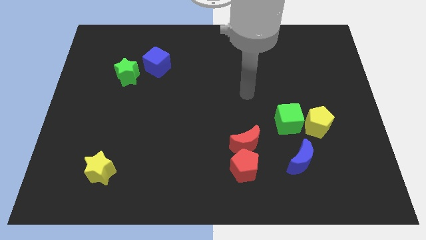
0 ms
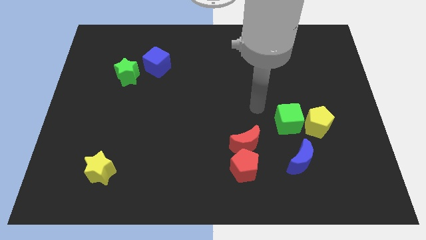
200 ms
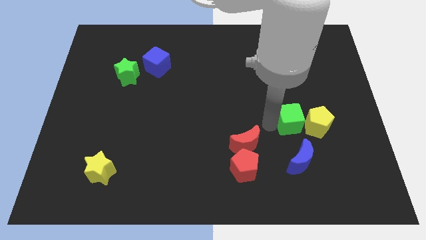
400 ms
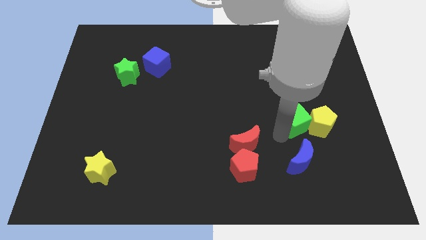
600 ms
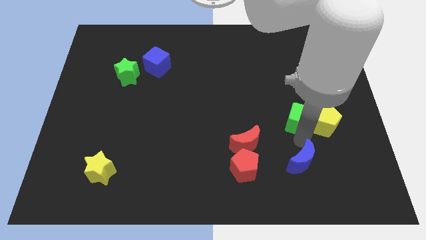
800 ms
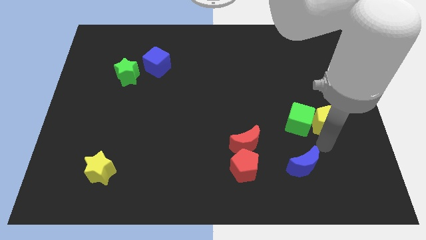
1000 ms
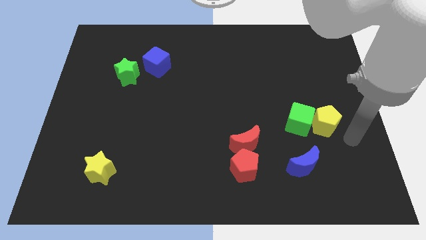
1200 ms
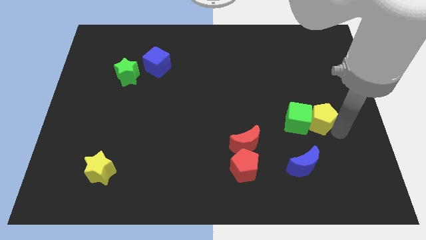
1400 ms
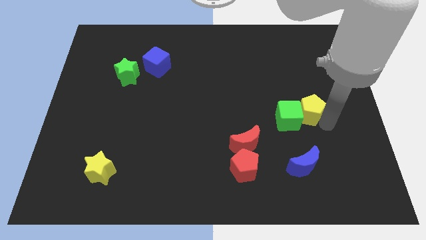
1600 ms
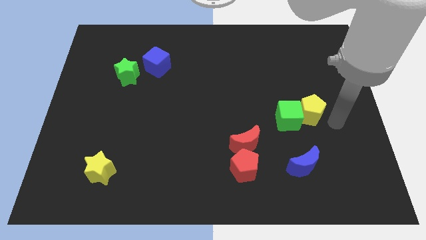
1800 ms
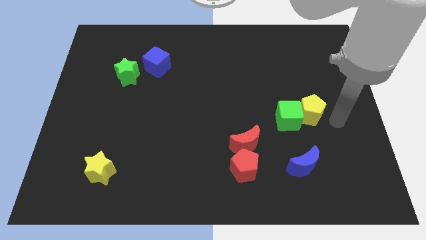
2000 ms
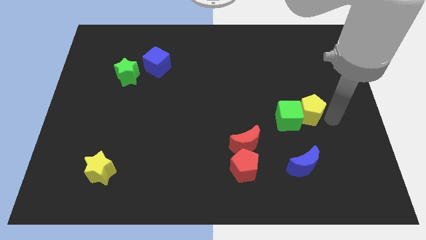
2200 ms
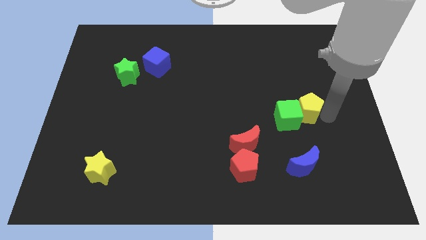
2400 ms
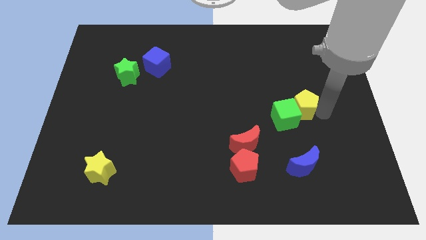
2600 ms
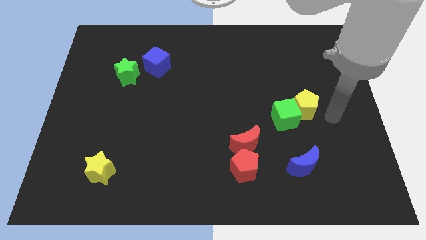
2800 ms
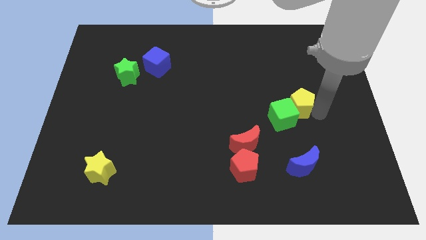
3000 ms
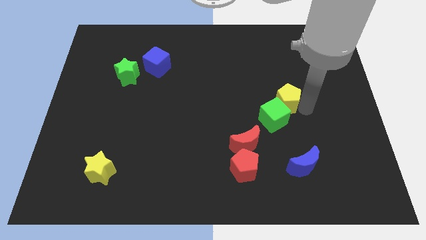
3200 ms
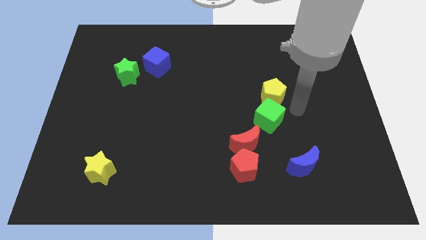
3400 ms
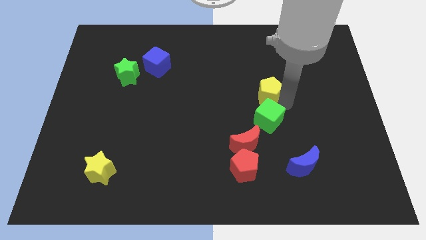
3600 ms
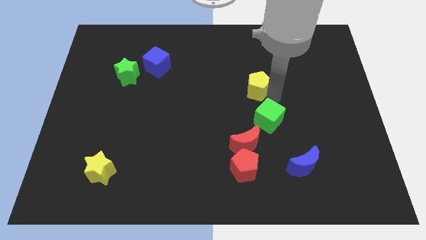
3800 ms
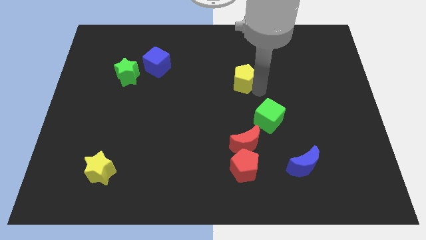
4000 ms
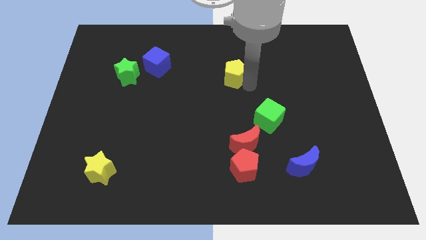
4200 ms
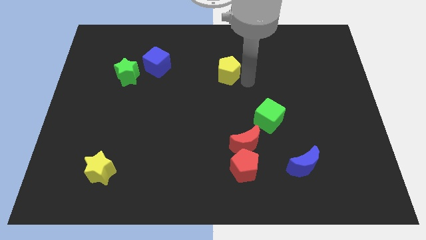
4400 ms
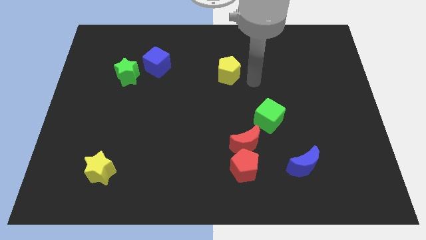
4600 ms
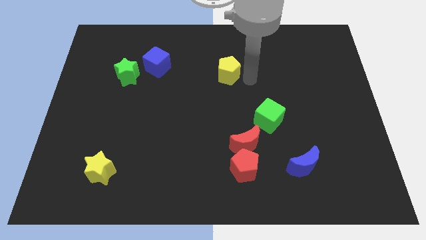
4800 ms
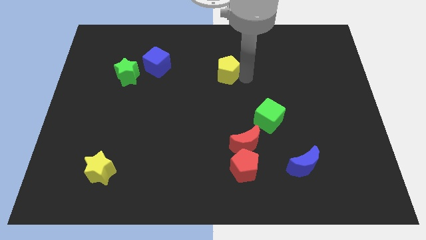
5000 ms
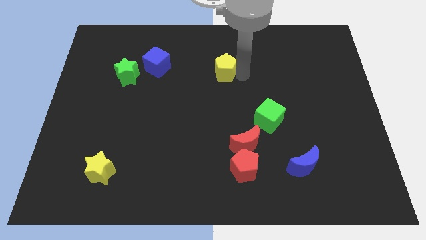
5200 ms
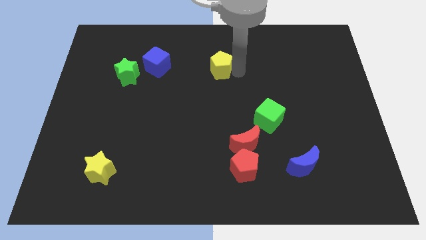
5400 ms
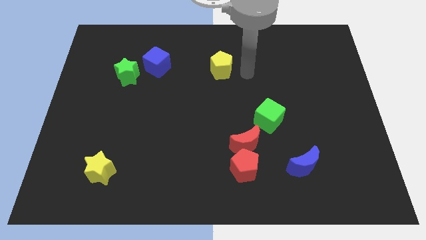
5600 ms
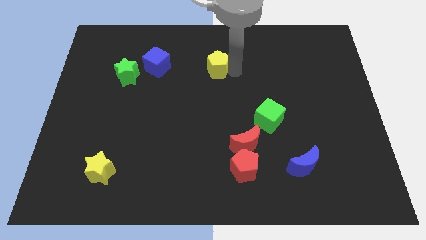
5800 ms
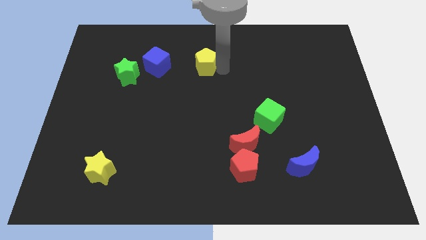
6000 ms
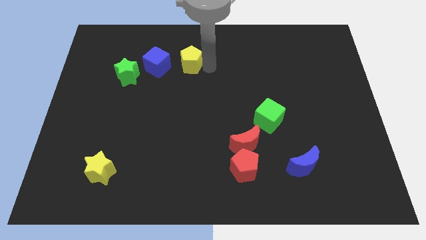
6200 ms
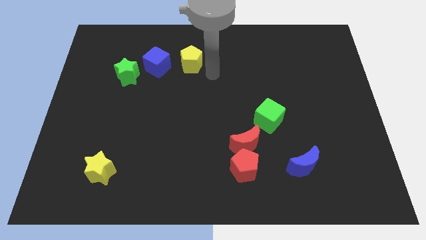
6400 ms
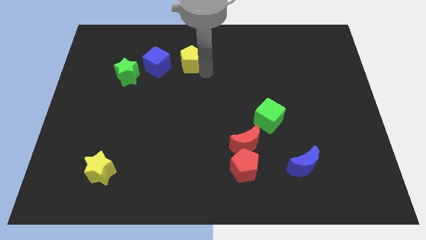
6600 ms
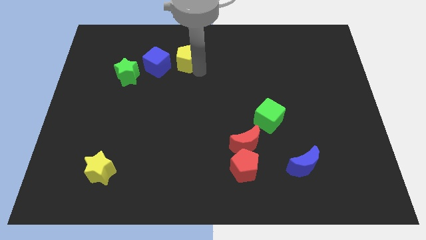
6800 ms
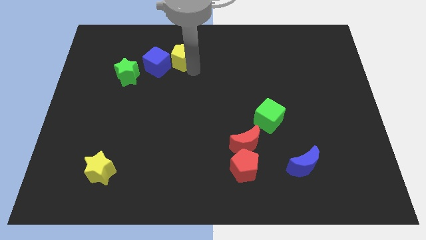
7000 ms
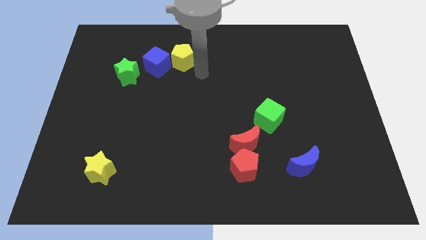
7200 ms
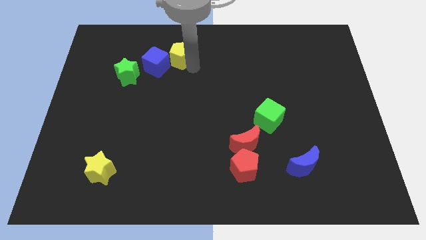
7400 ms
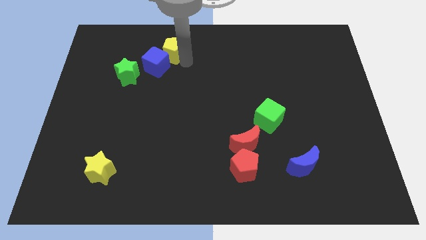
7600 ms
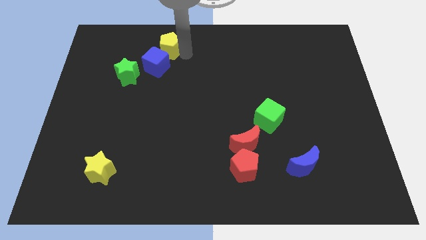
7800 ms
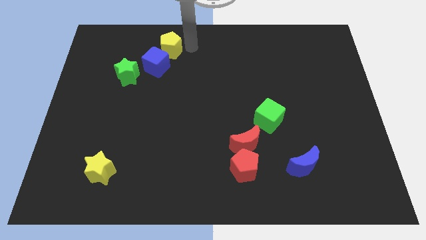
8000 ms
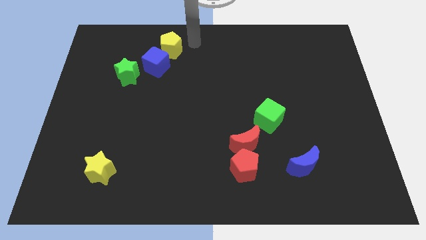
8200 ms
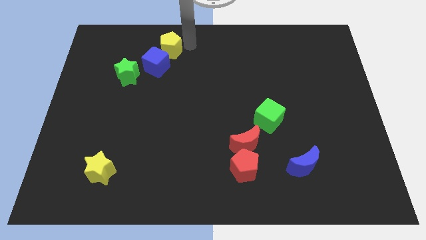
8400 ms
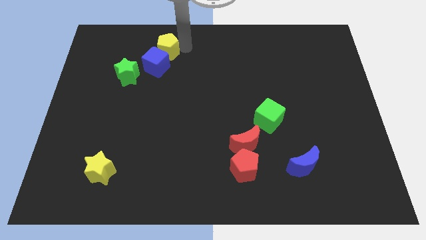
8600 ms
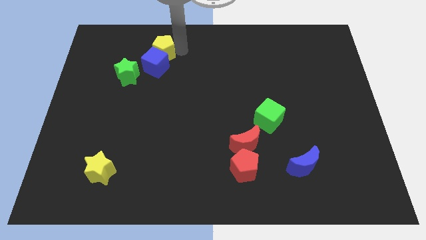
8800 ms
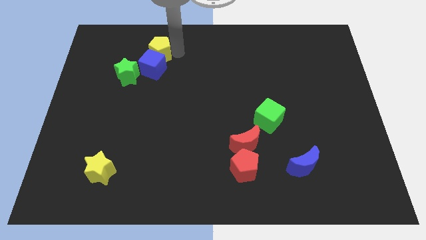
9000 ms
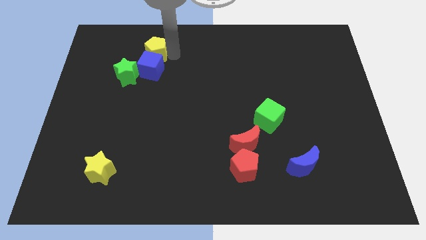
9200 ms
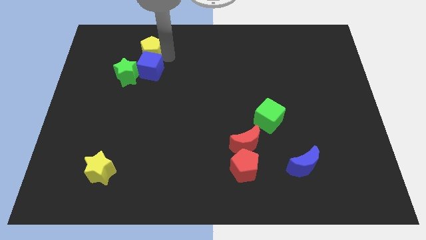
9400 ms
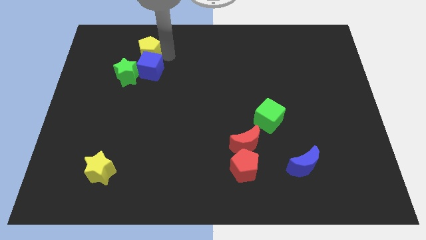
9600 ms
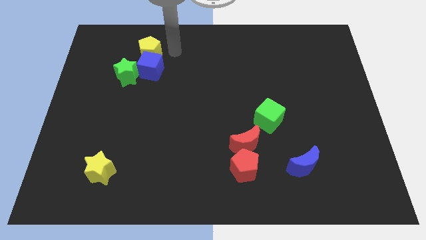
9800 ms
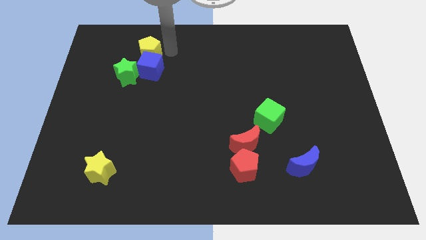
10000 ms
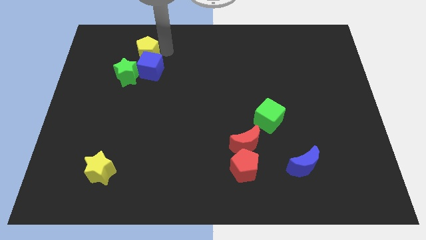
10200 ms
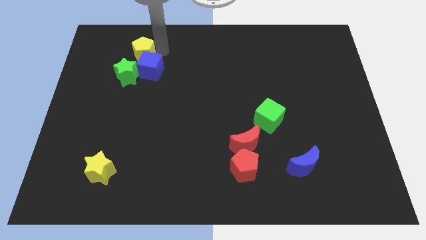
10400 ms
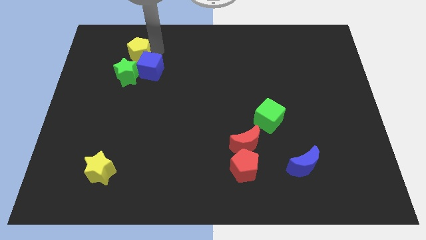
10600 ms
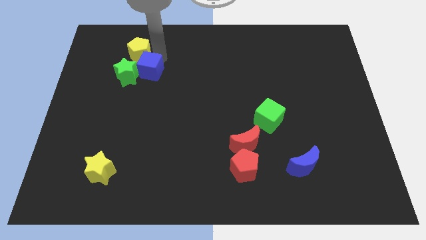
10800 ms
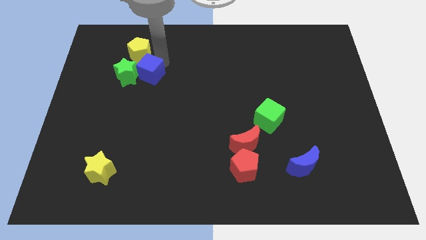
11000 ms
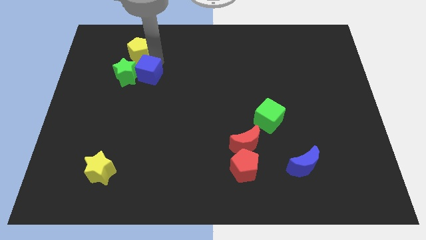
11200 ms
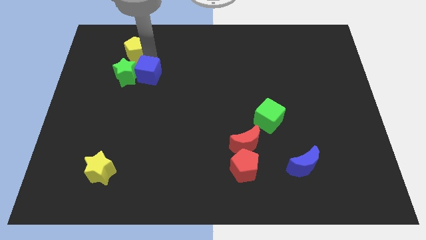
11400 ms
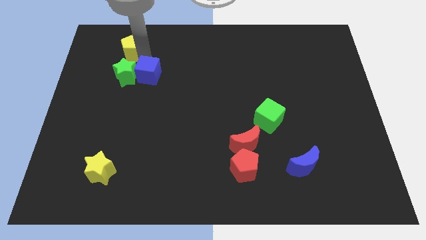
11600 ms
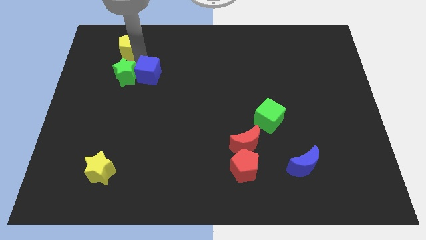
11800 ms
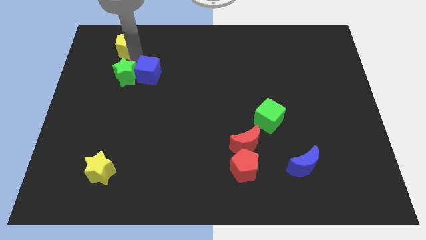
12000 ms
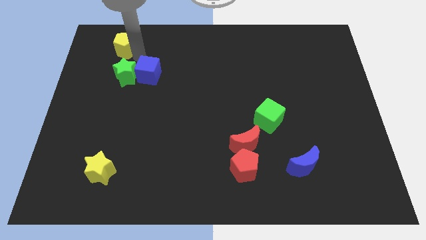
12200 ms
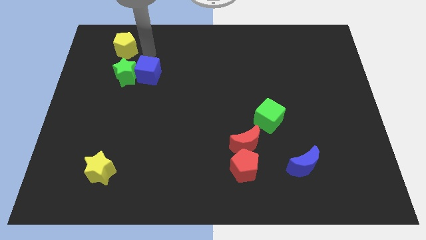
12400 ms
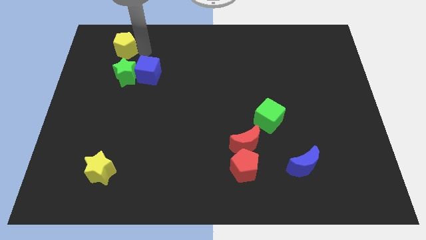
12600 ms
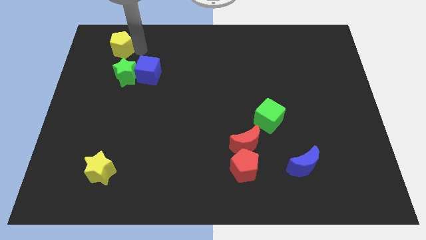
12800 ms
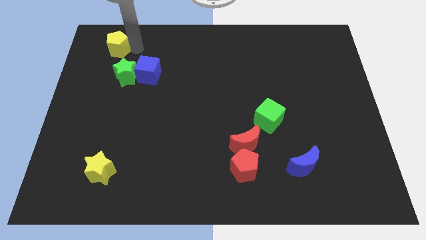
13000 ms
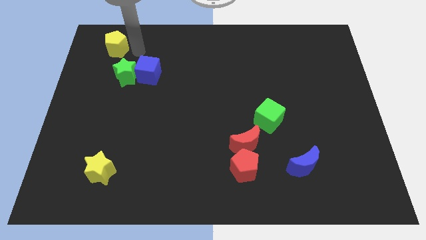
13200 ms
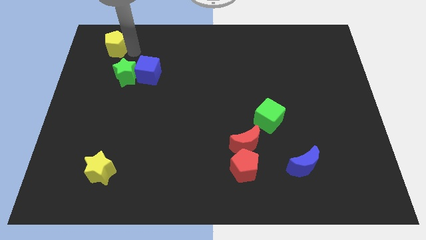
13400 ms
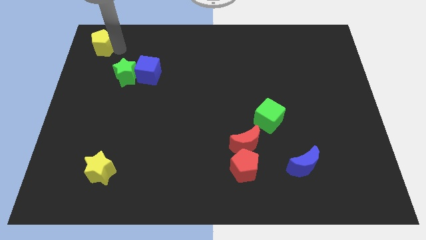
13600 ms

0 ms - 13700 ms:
slide the yellow pentagon to the upper left corner

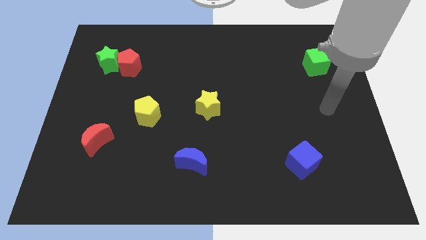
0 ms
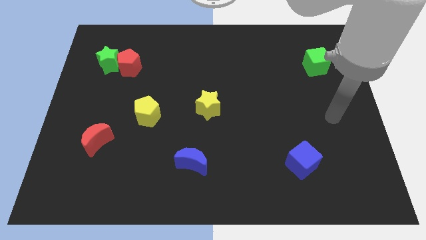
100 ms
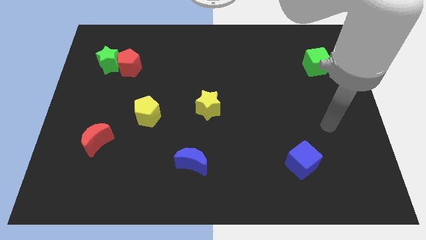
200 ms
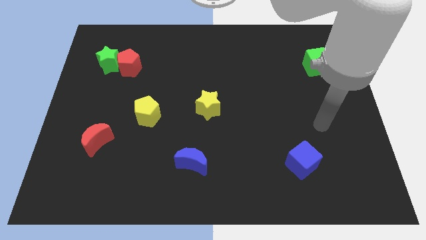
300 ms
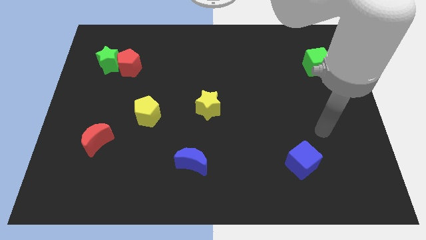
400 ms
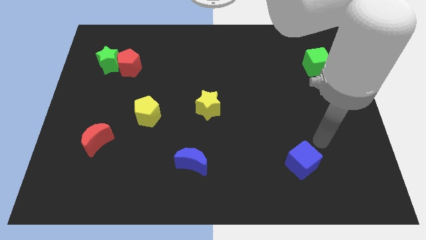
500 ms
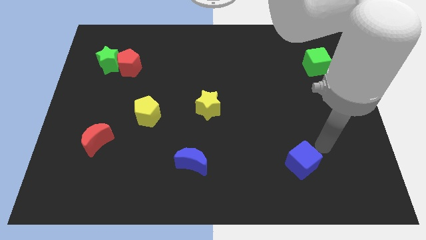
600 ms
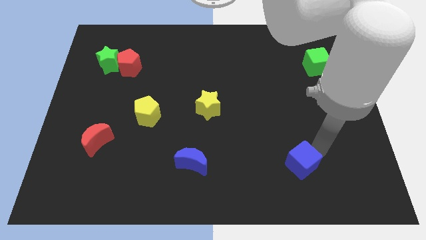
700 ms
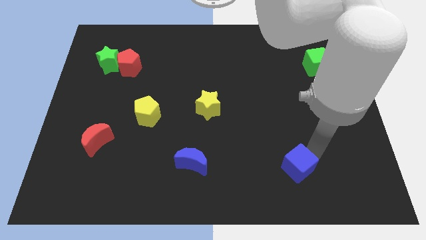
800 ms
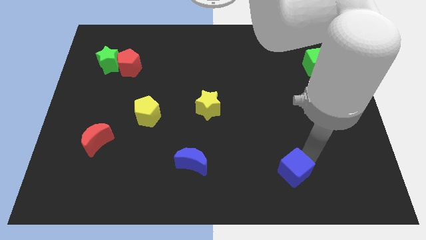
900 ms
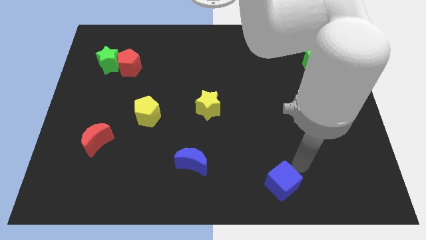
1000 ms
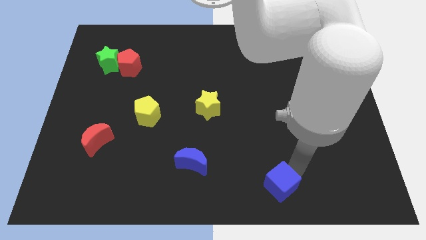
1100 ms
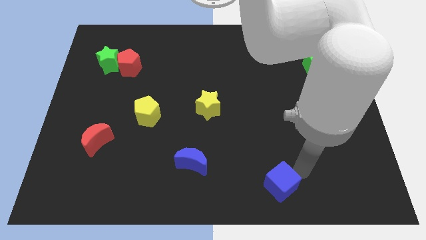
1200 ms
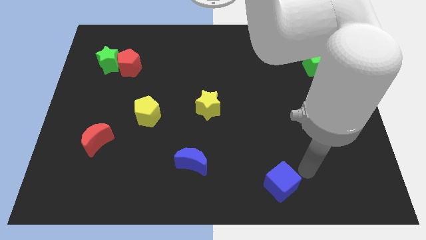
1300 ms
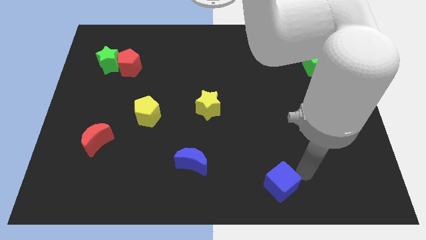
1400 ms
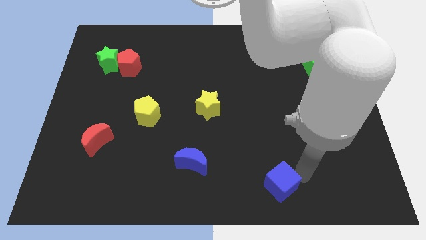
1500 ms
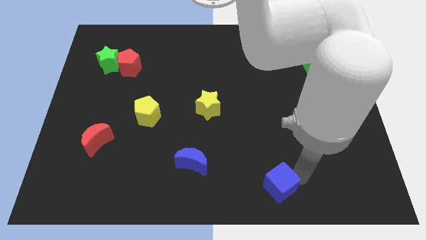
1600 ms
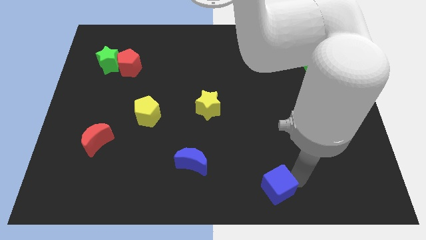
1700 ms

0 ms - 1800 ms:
push the blue cube to the bottom
